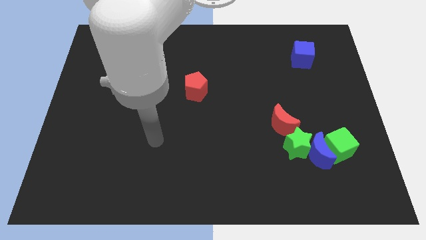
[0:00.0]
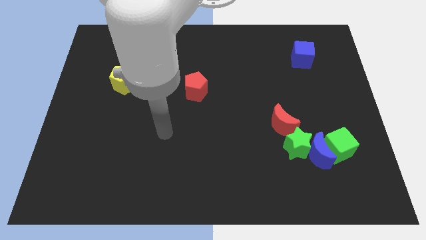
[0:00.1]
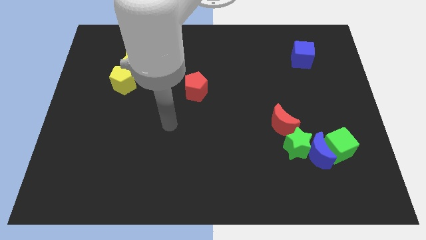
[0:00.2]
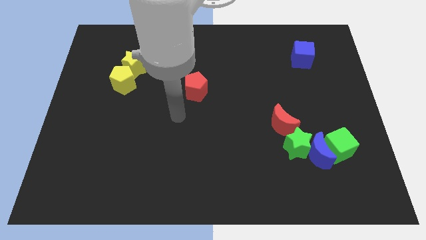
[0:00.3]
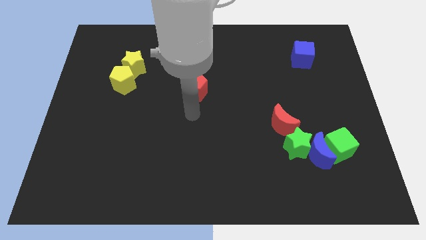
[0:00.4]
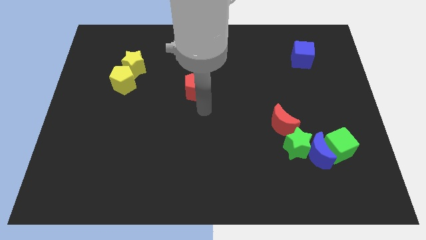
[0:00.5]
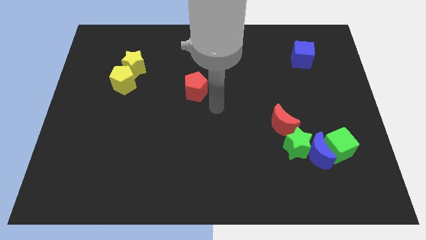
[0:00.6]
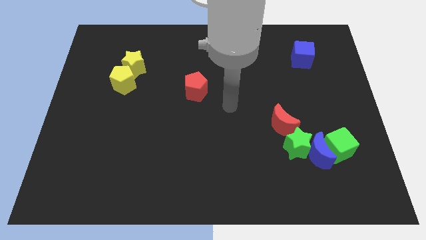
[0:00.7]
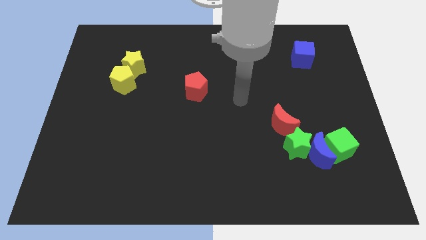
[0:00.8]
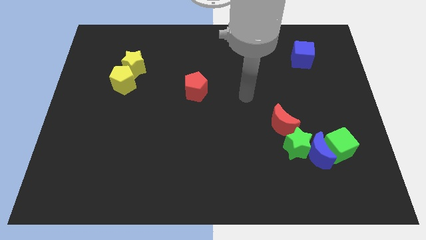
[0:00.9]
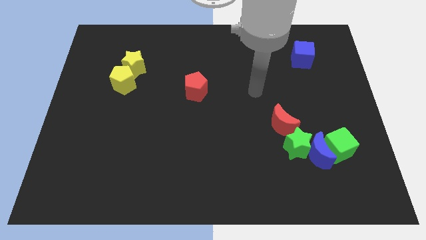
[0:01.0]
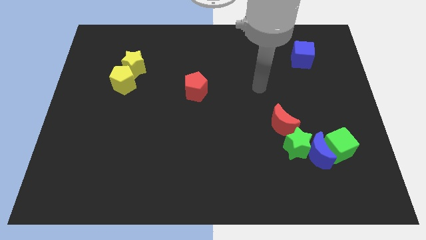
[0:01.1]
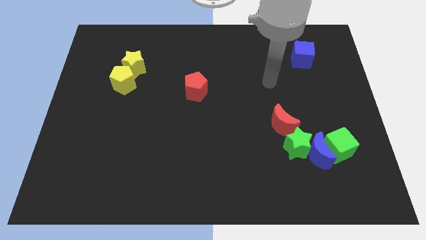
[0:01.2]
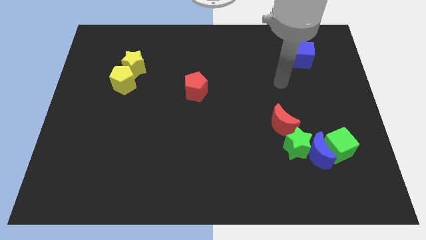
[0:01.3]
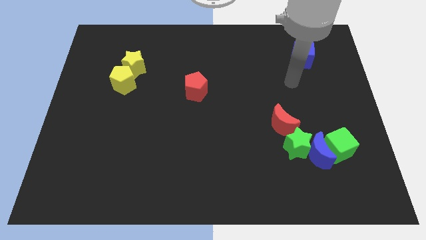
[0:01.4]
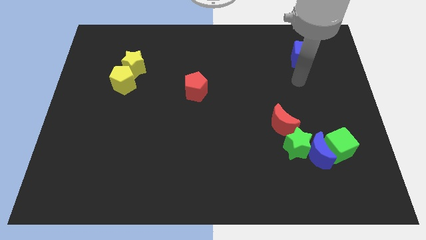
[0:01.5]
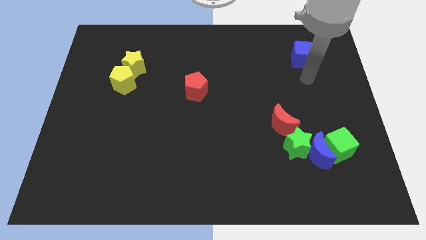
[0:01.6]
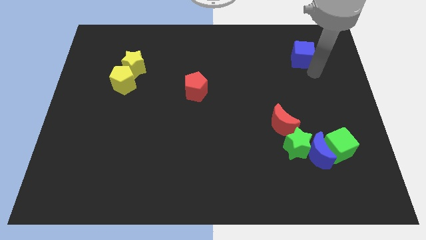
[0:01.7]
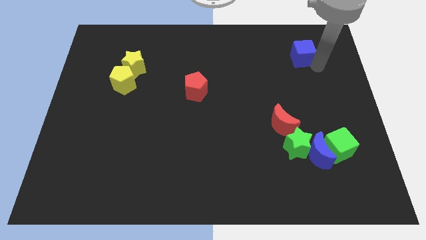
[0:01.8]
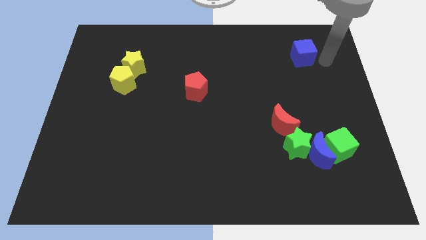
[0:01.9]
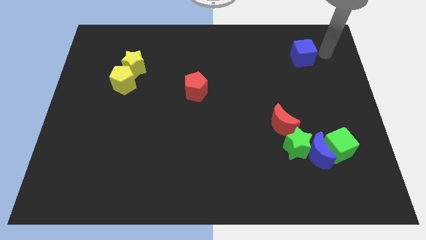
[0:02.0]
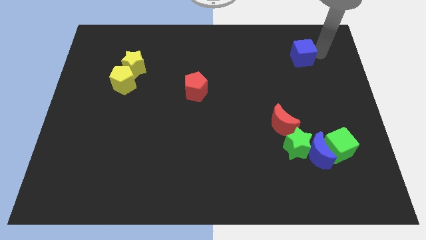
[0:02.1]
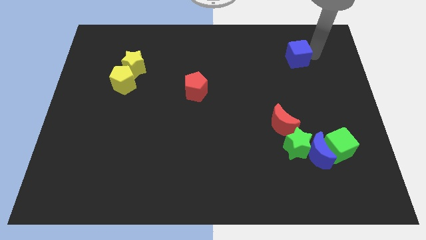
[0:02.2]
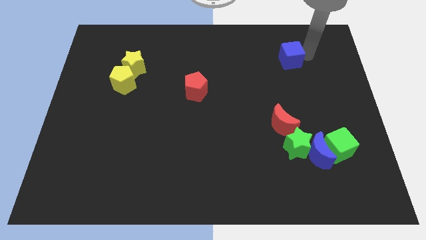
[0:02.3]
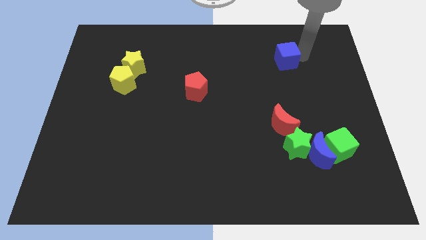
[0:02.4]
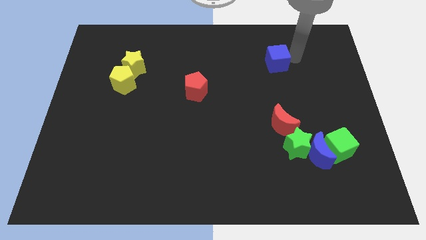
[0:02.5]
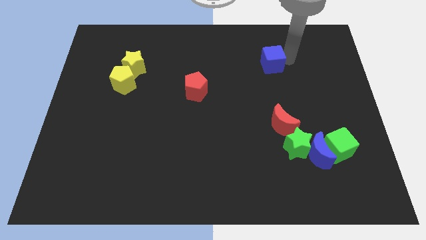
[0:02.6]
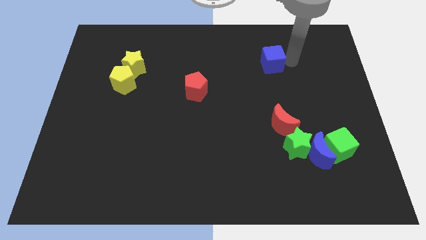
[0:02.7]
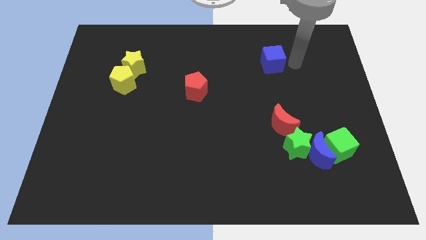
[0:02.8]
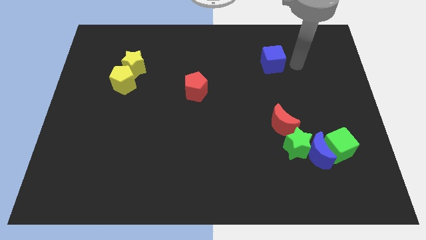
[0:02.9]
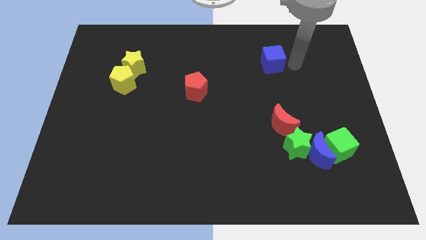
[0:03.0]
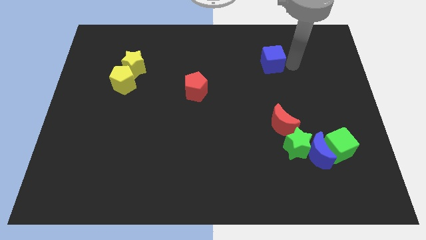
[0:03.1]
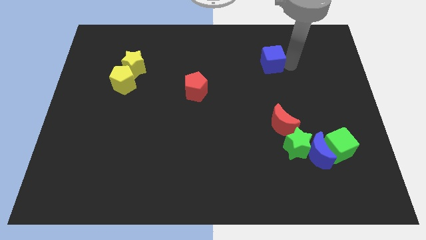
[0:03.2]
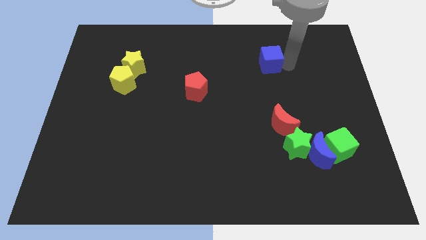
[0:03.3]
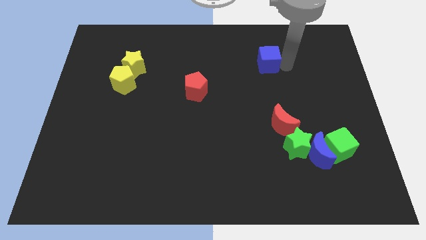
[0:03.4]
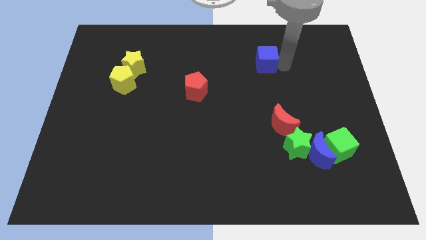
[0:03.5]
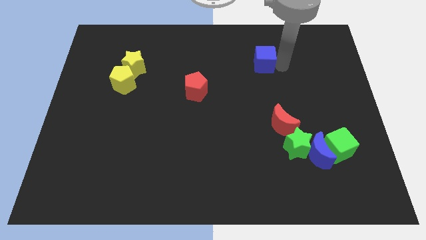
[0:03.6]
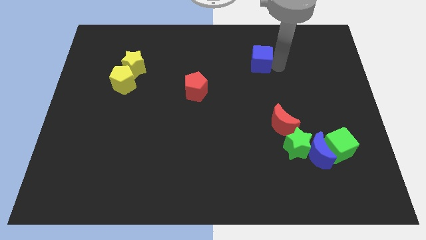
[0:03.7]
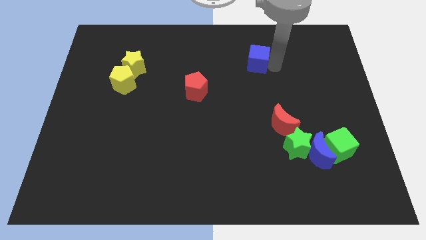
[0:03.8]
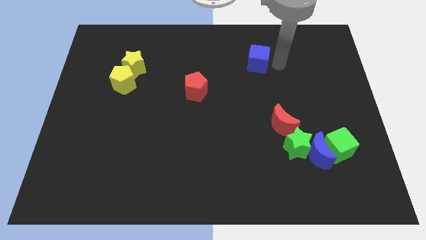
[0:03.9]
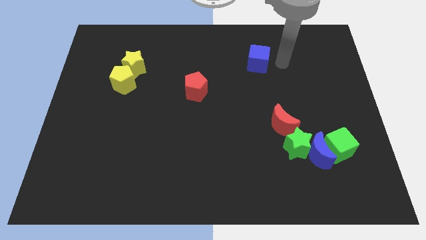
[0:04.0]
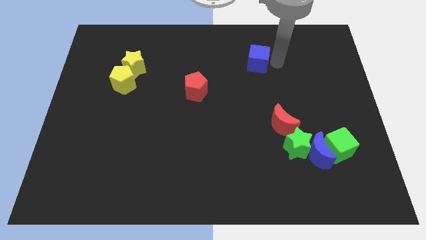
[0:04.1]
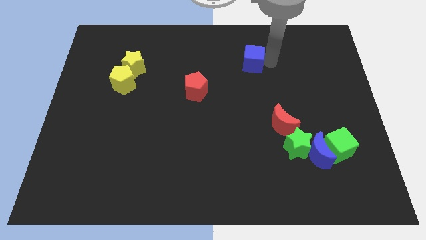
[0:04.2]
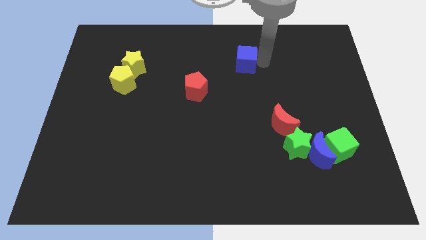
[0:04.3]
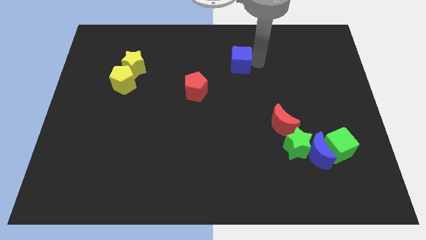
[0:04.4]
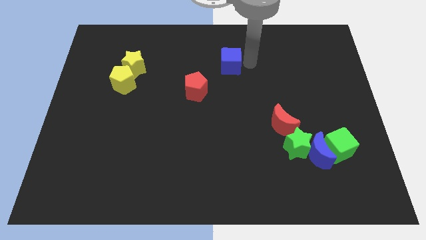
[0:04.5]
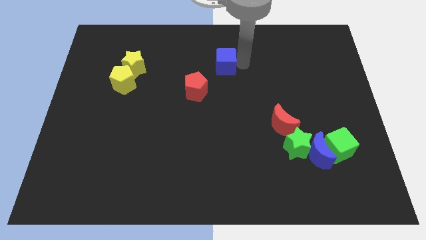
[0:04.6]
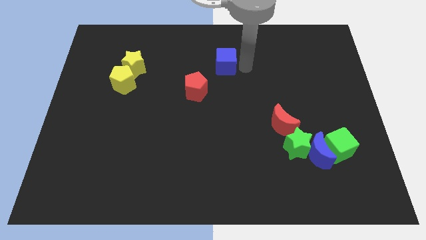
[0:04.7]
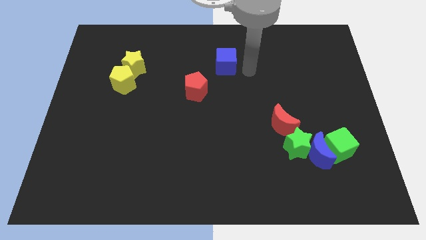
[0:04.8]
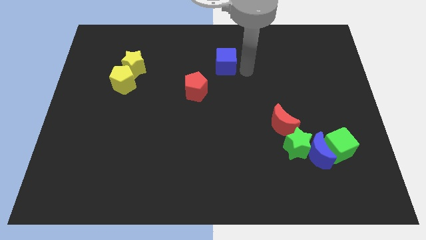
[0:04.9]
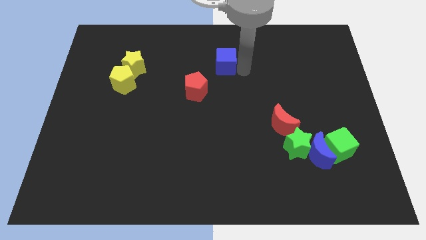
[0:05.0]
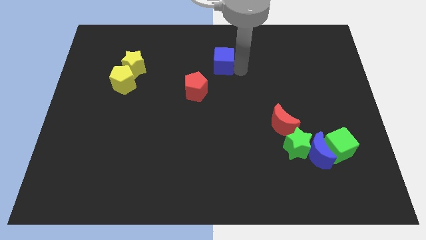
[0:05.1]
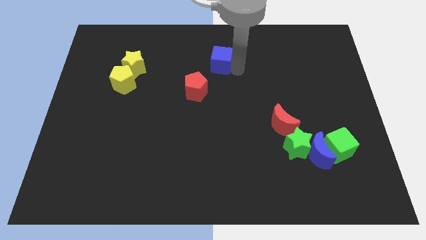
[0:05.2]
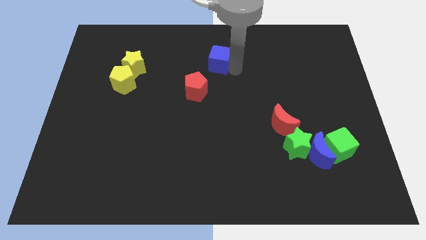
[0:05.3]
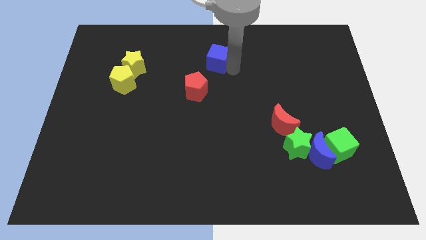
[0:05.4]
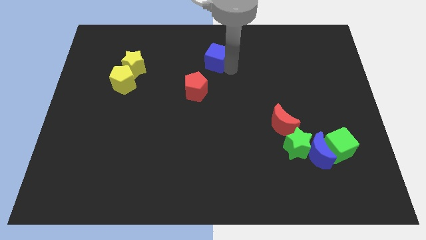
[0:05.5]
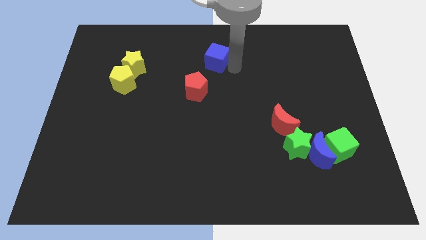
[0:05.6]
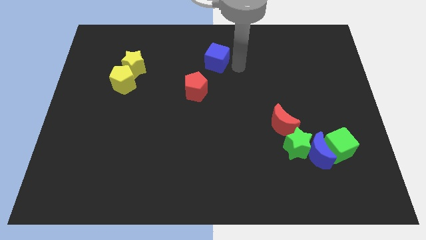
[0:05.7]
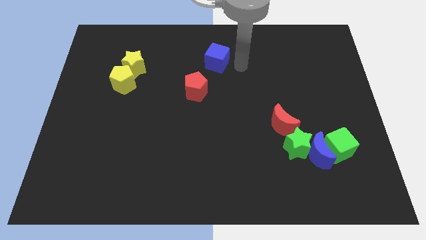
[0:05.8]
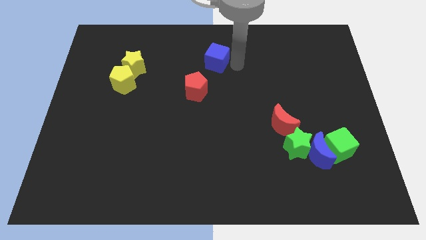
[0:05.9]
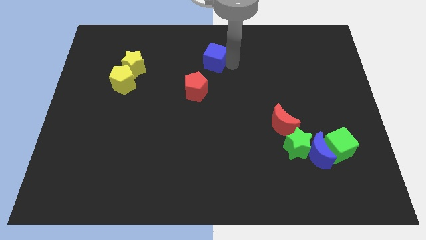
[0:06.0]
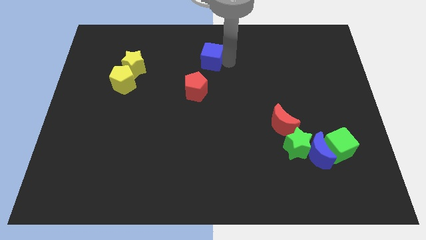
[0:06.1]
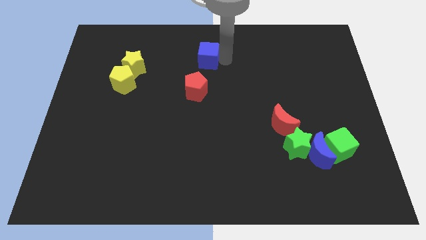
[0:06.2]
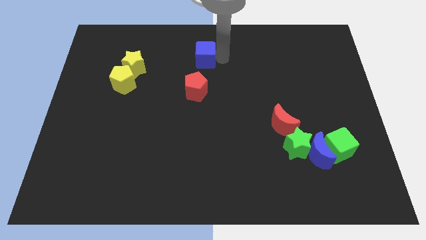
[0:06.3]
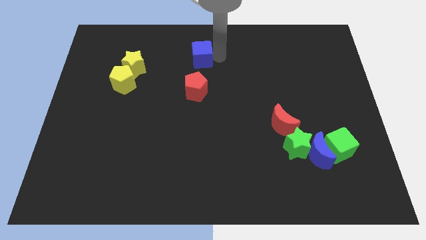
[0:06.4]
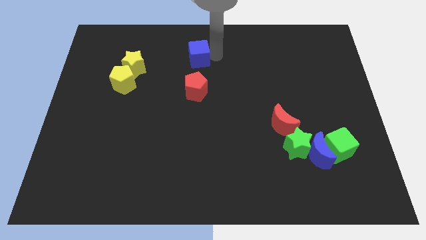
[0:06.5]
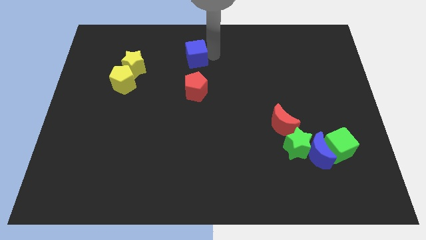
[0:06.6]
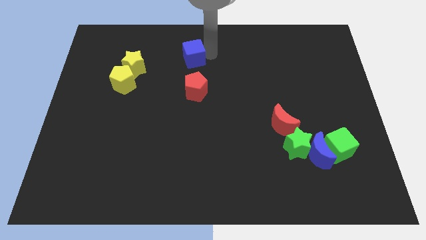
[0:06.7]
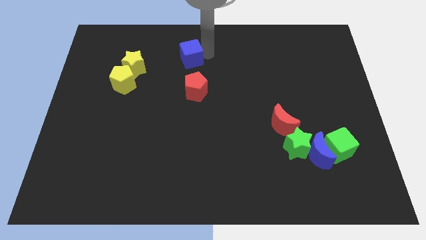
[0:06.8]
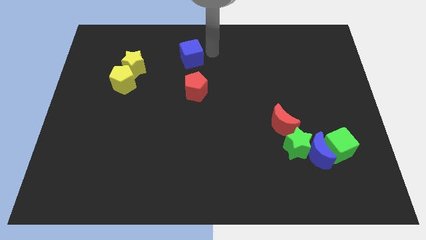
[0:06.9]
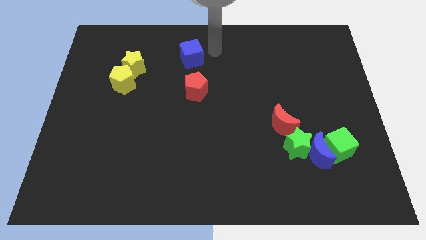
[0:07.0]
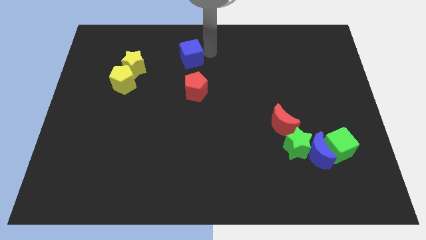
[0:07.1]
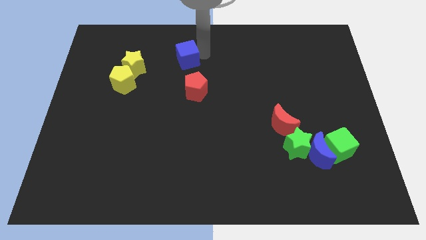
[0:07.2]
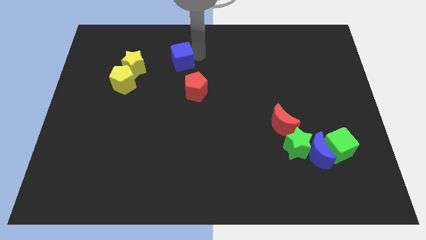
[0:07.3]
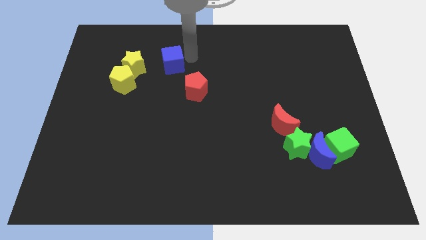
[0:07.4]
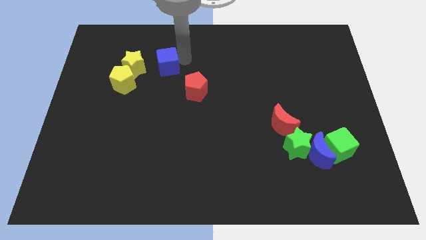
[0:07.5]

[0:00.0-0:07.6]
put the blue cube to the top right side of the yellow pentagon
